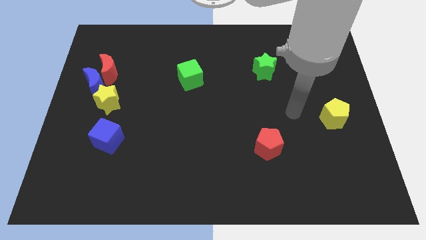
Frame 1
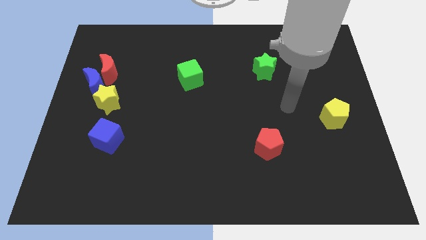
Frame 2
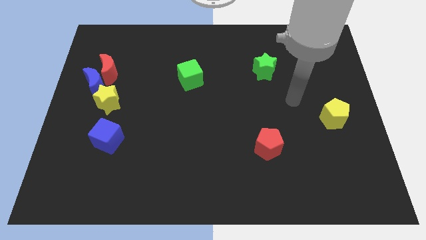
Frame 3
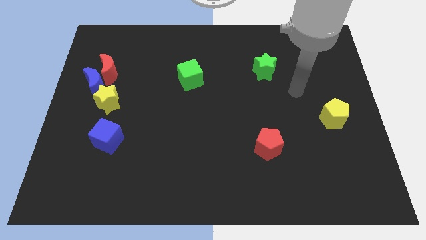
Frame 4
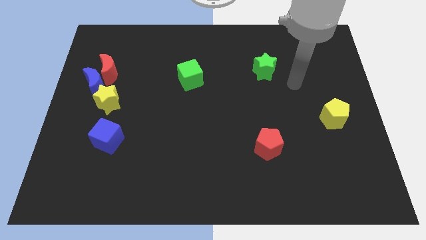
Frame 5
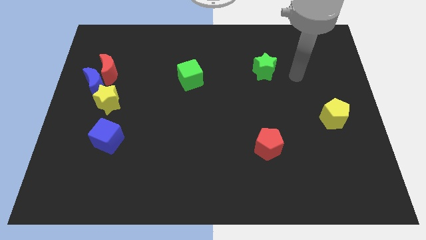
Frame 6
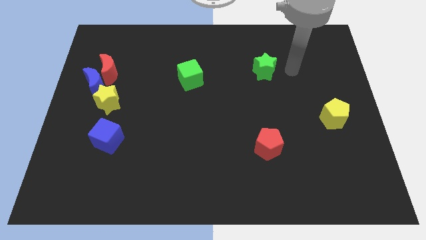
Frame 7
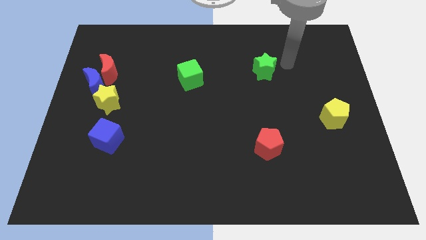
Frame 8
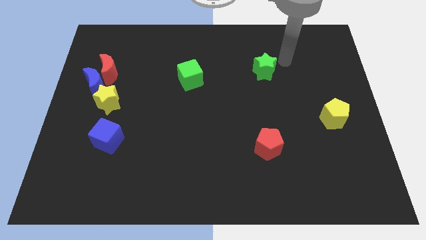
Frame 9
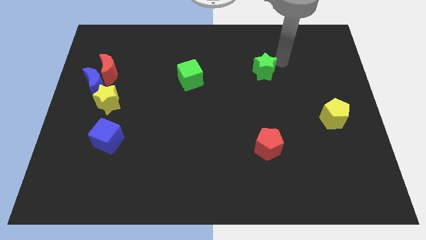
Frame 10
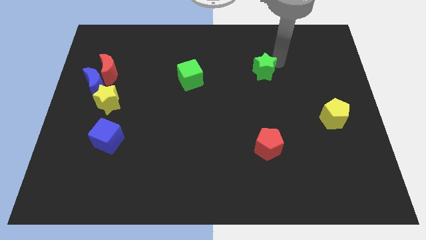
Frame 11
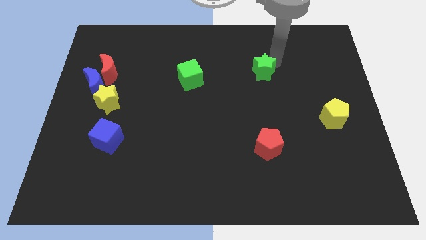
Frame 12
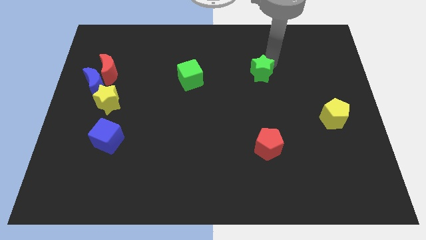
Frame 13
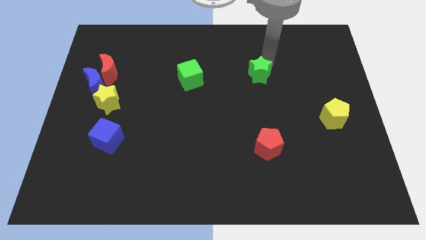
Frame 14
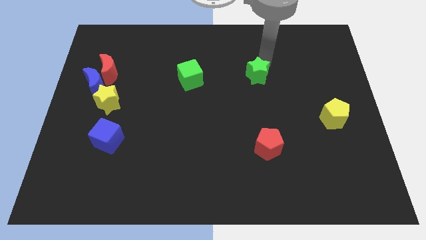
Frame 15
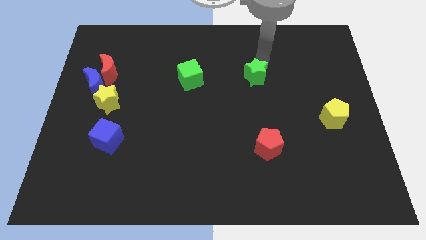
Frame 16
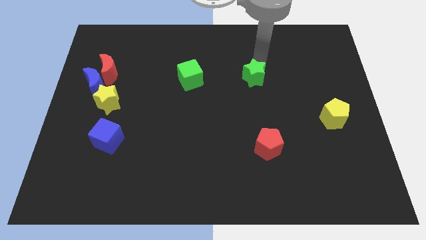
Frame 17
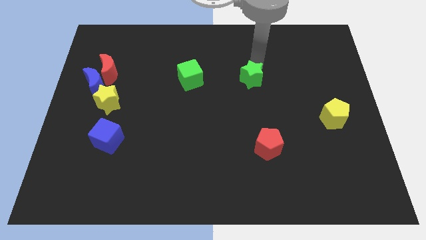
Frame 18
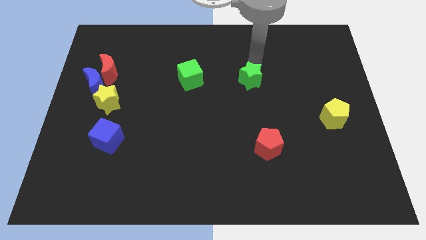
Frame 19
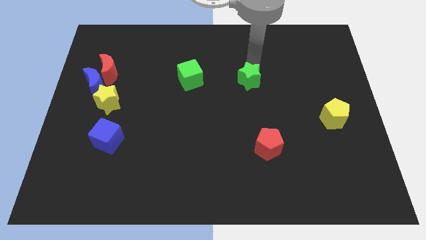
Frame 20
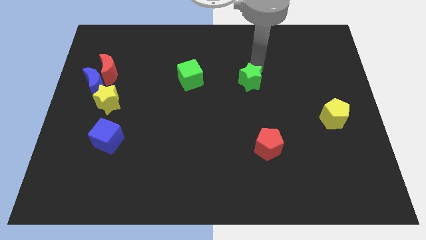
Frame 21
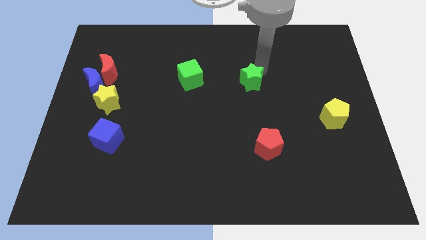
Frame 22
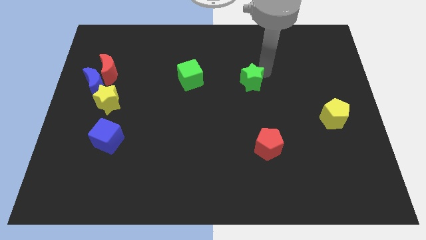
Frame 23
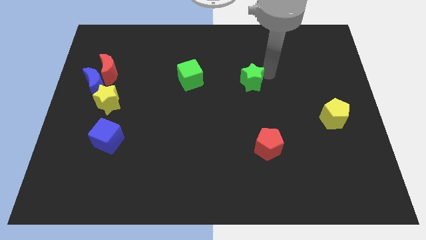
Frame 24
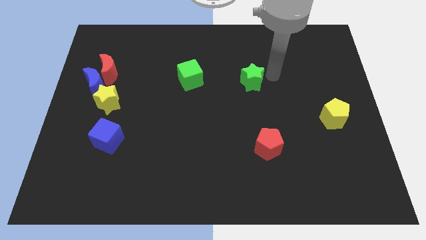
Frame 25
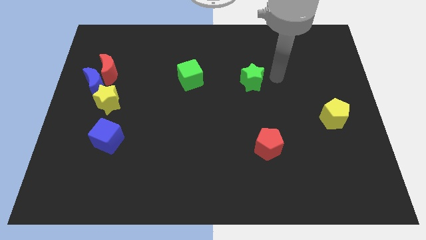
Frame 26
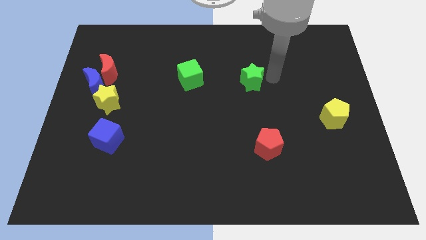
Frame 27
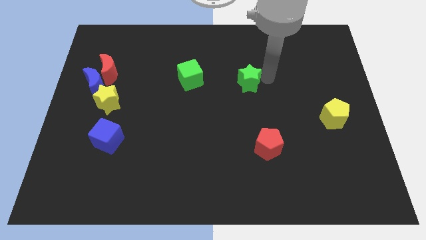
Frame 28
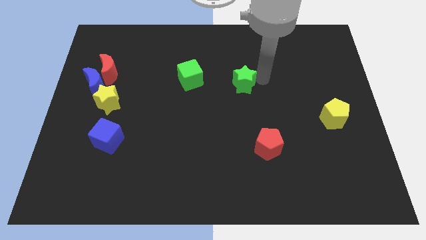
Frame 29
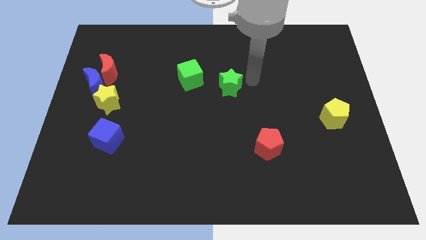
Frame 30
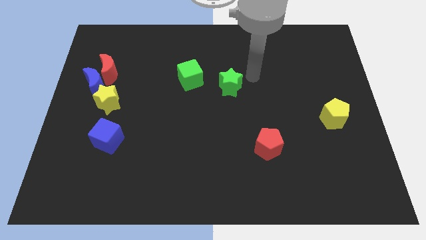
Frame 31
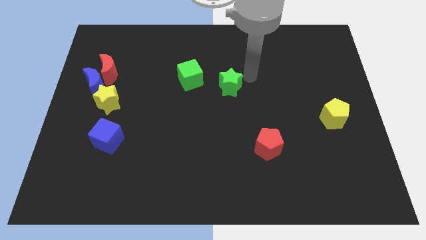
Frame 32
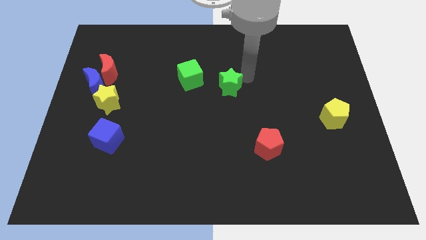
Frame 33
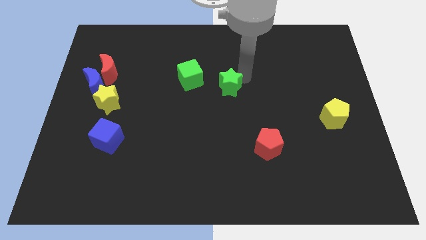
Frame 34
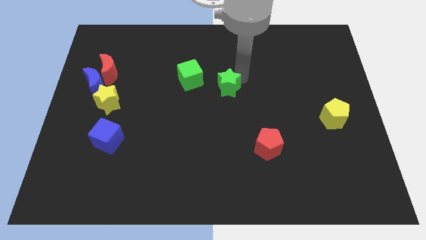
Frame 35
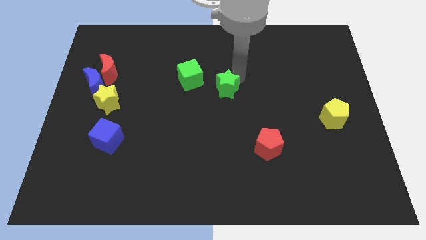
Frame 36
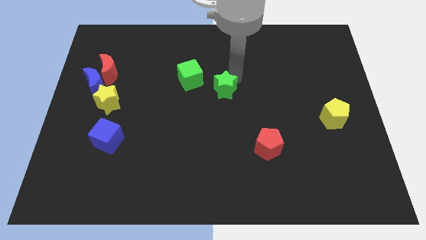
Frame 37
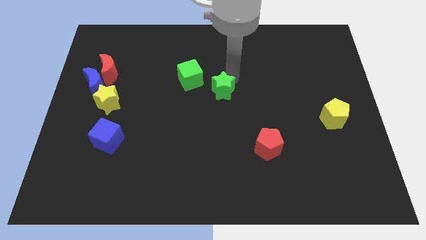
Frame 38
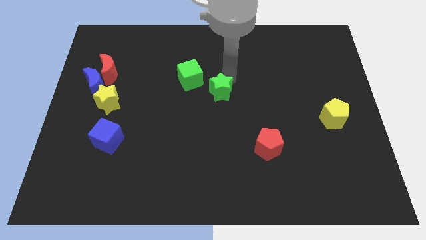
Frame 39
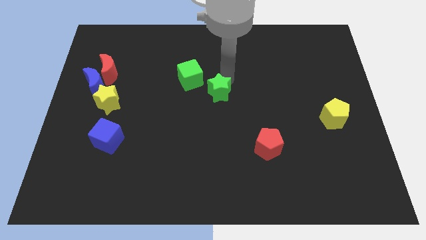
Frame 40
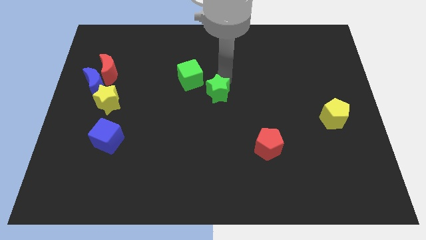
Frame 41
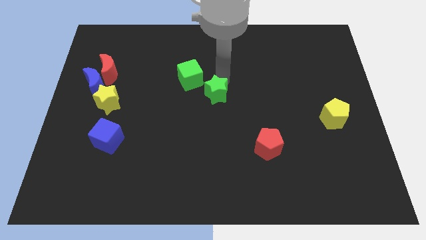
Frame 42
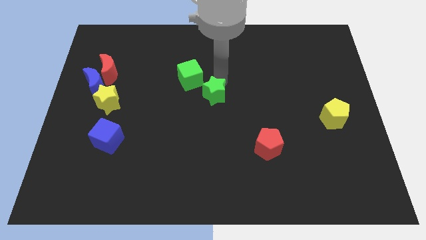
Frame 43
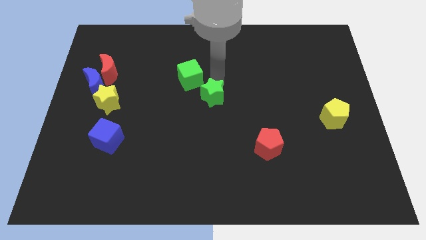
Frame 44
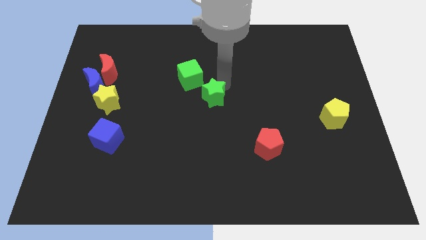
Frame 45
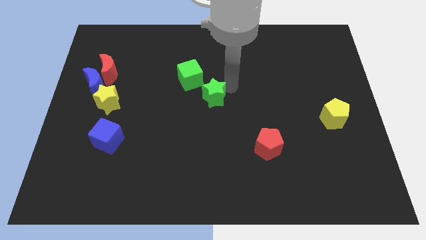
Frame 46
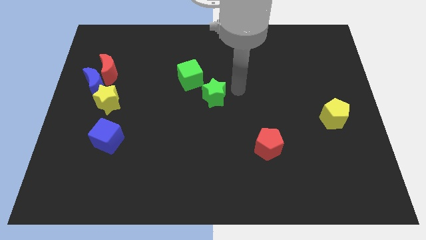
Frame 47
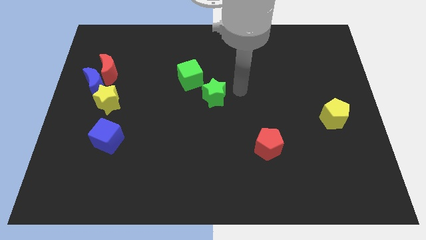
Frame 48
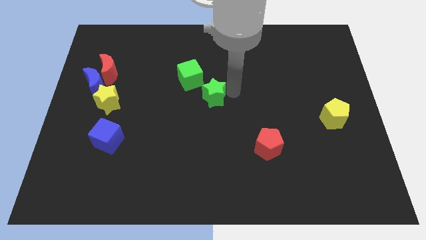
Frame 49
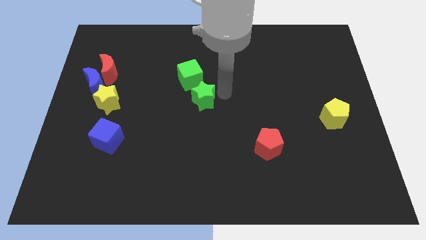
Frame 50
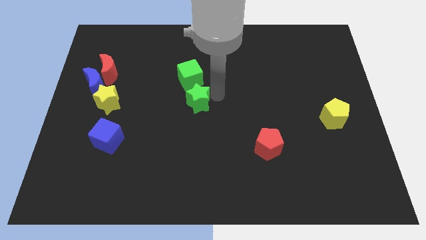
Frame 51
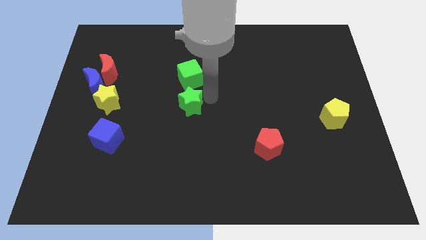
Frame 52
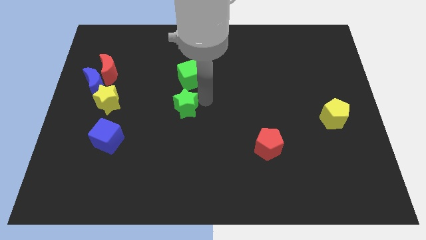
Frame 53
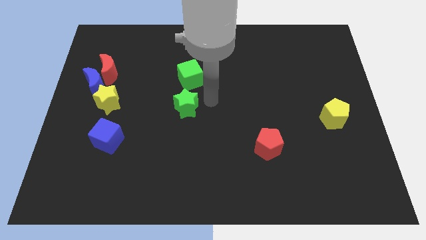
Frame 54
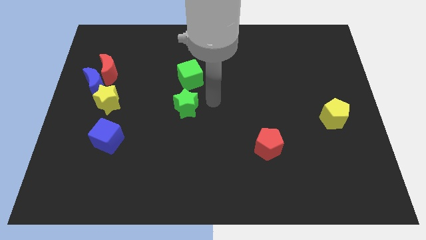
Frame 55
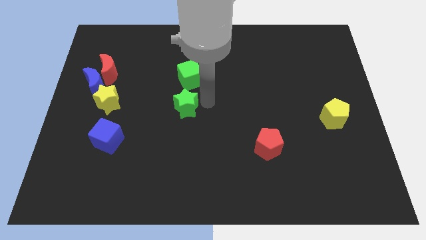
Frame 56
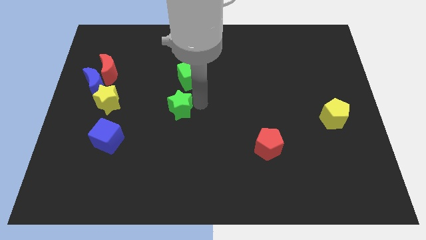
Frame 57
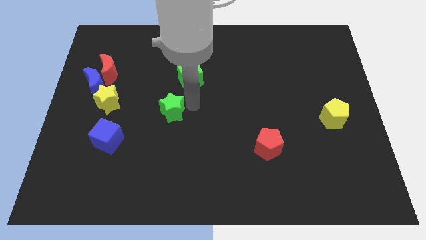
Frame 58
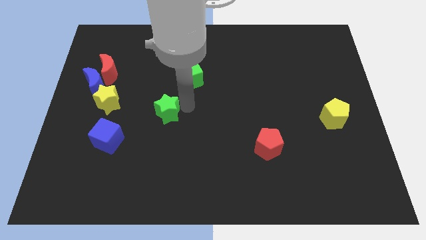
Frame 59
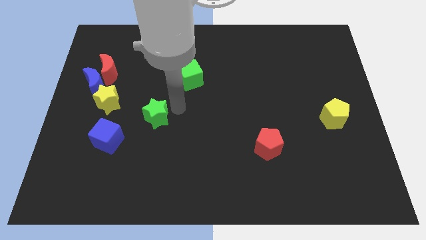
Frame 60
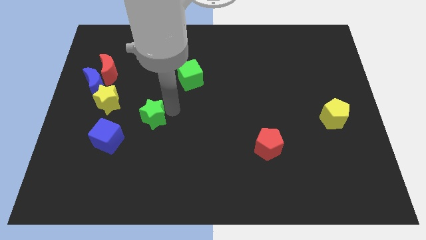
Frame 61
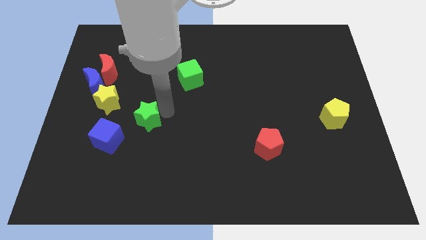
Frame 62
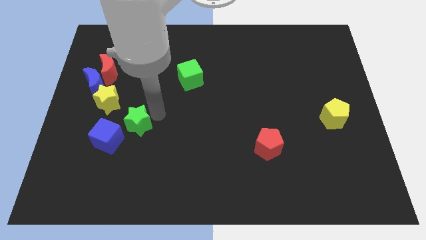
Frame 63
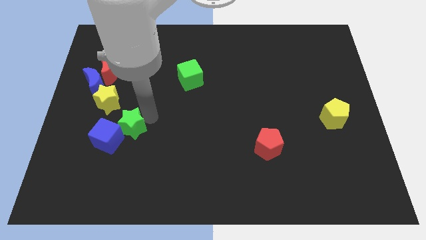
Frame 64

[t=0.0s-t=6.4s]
push the green star towards the blue cube

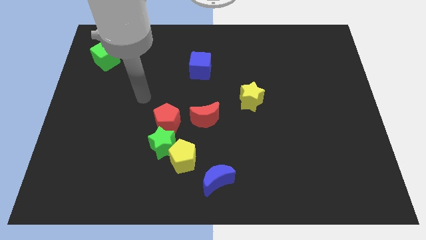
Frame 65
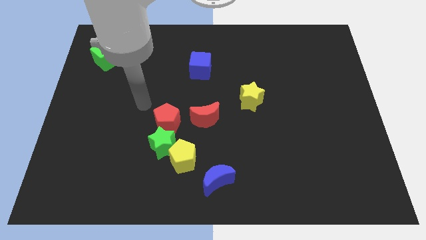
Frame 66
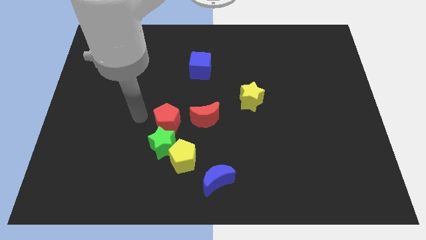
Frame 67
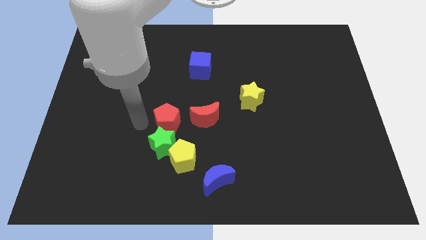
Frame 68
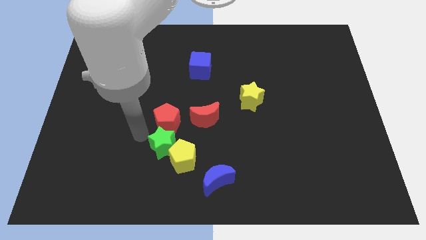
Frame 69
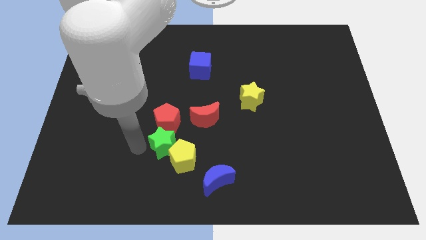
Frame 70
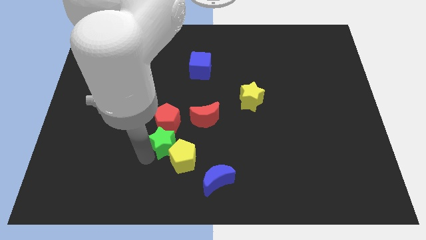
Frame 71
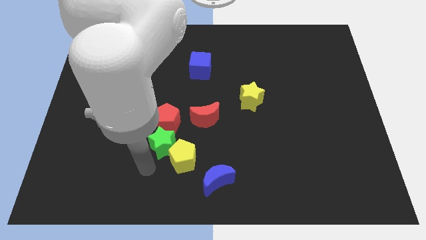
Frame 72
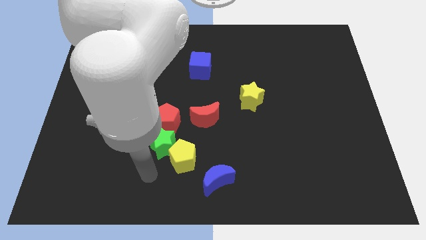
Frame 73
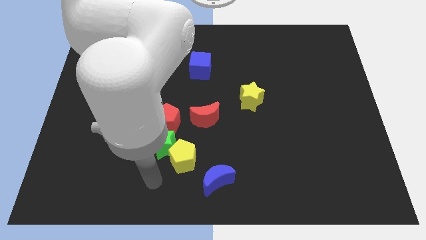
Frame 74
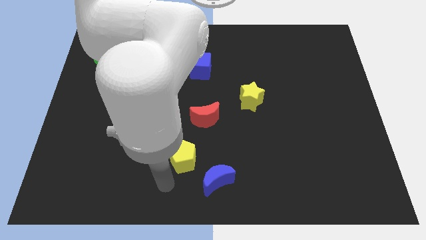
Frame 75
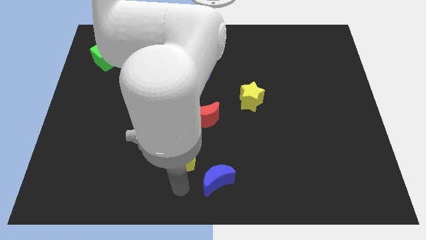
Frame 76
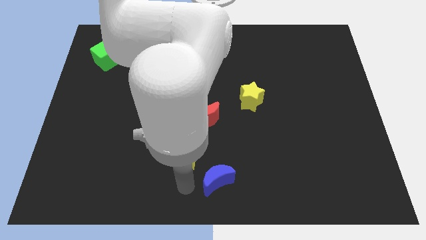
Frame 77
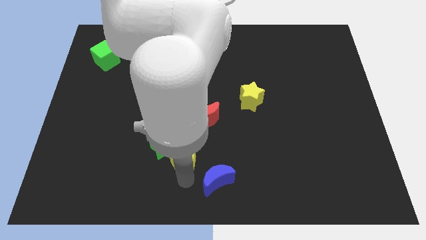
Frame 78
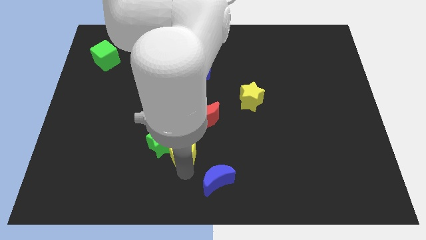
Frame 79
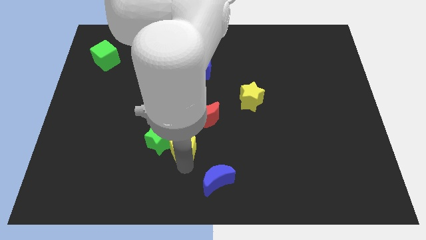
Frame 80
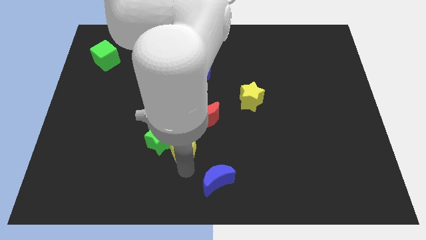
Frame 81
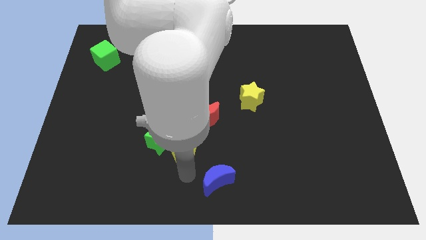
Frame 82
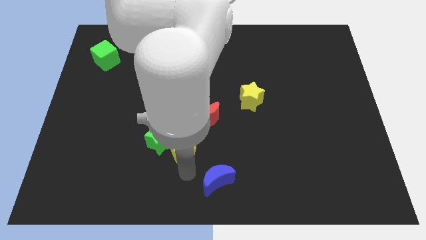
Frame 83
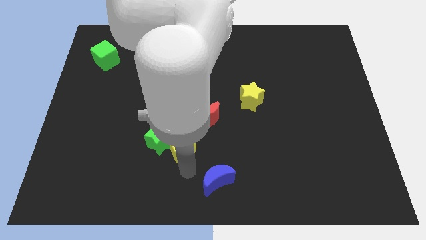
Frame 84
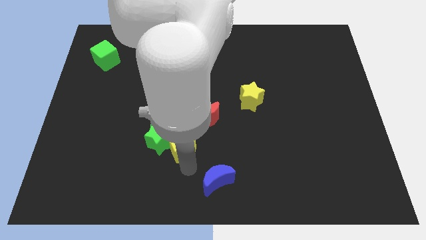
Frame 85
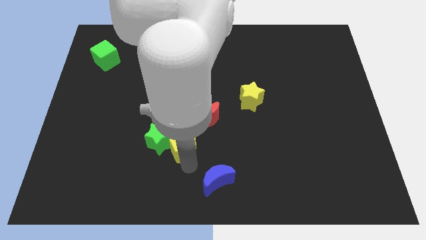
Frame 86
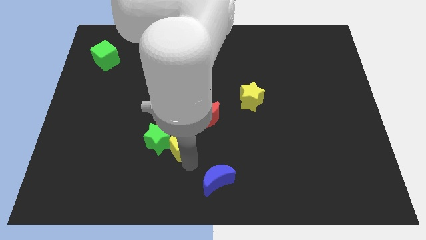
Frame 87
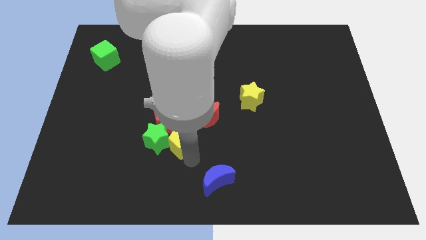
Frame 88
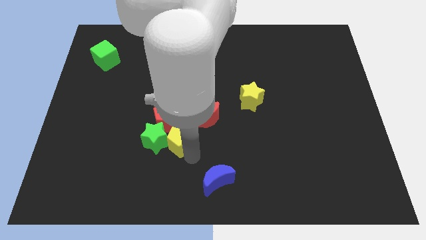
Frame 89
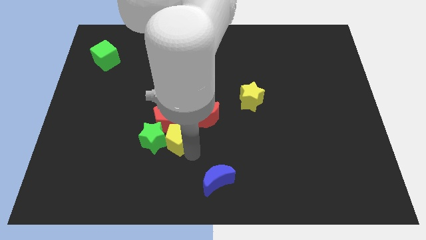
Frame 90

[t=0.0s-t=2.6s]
move the yellow pentagon close to the red pentagon
